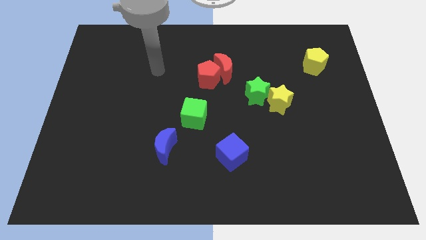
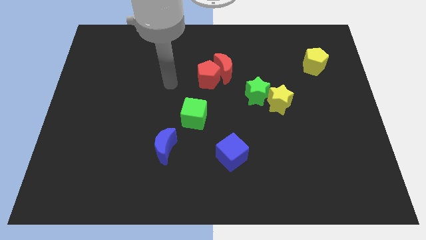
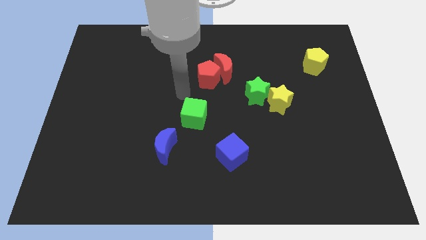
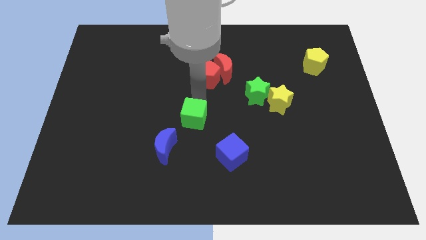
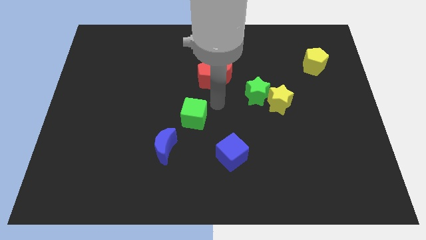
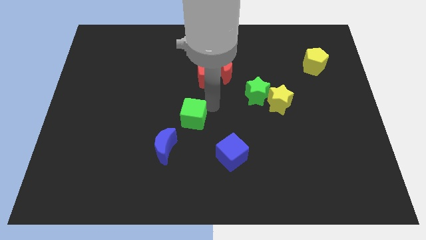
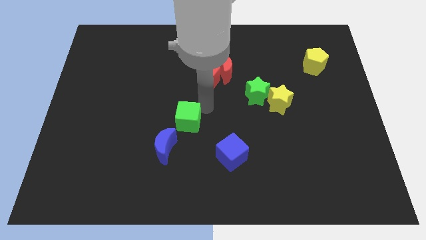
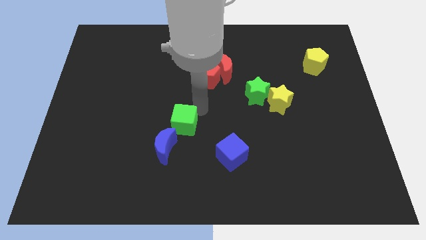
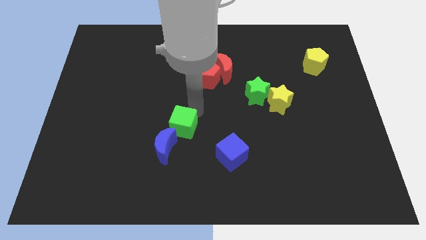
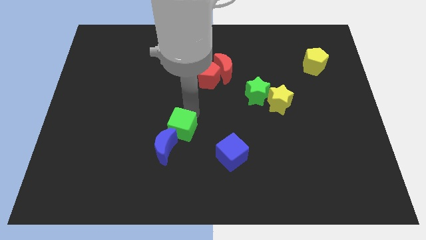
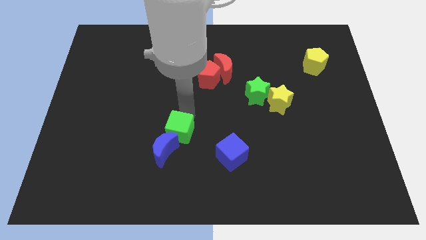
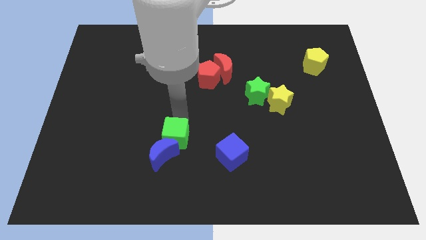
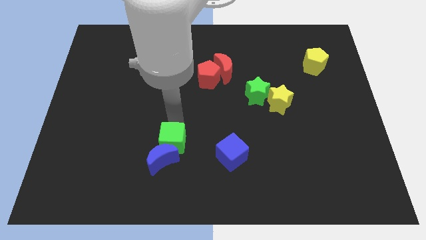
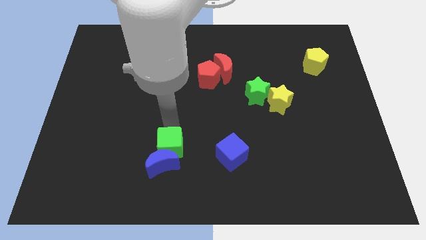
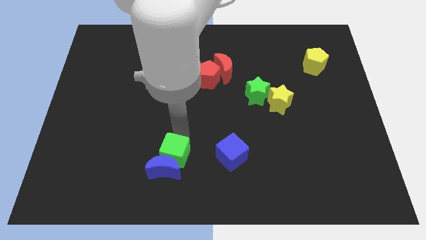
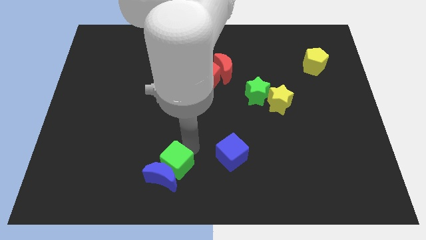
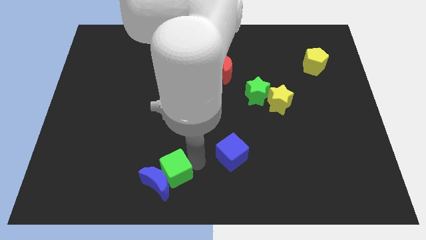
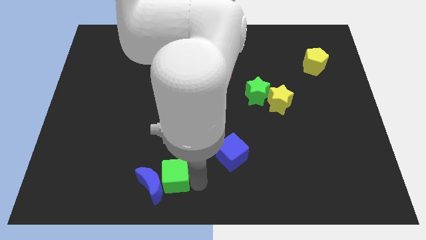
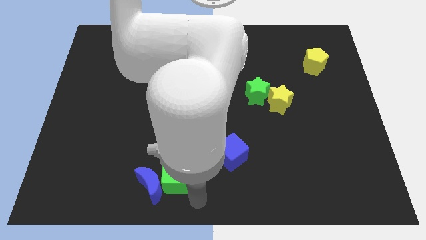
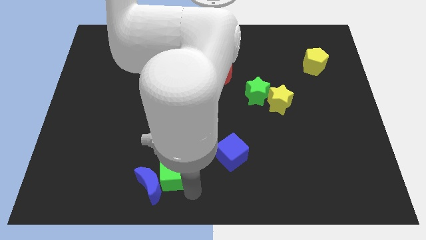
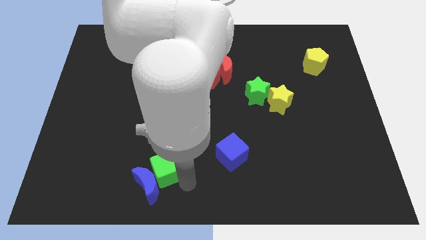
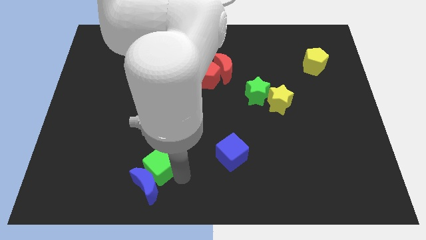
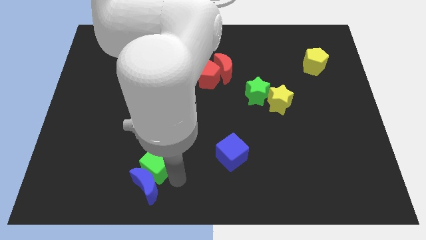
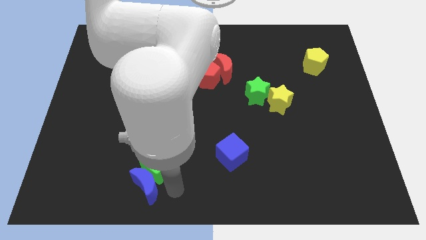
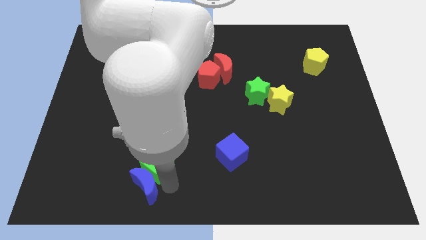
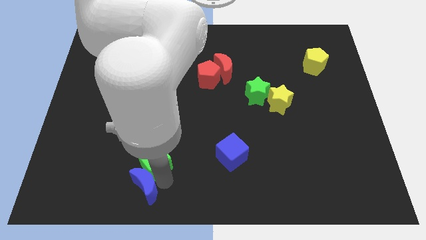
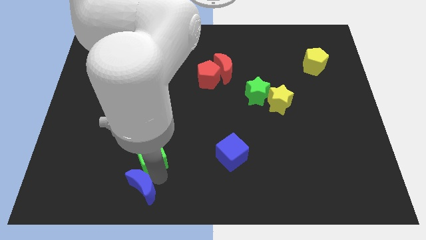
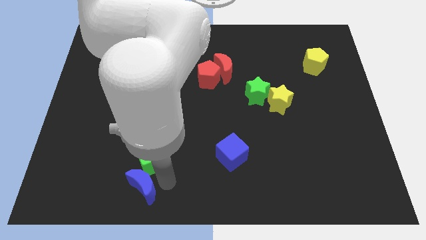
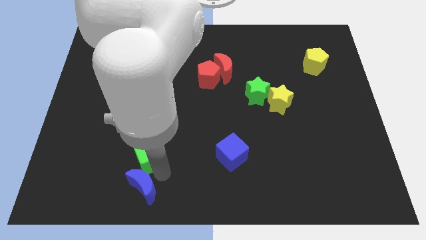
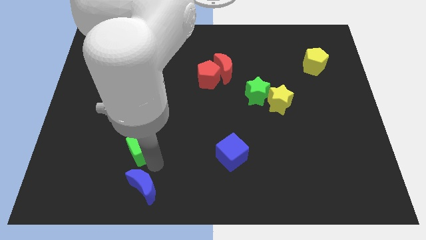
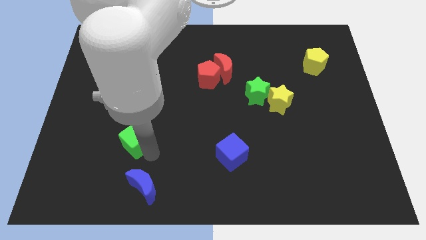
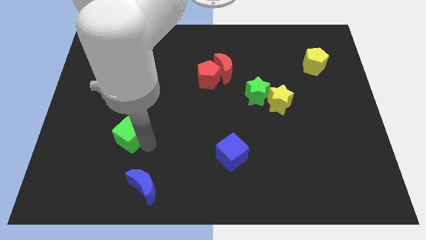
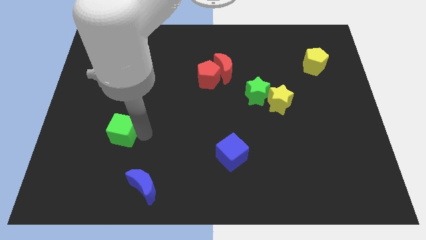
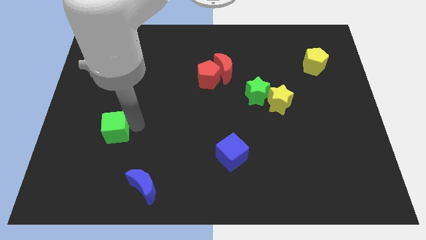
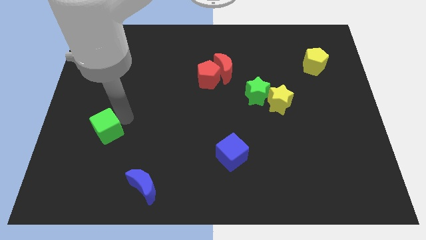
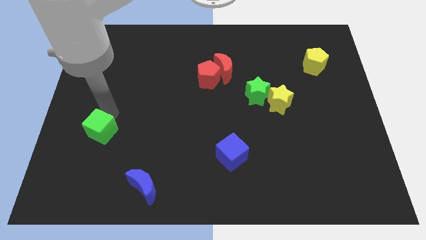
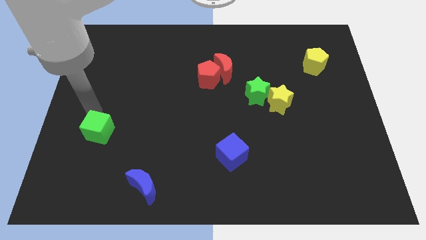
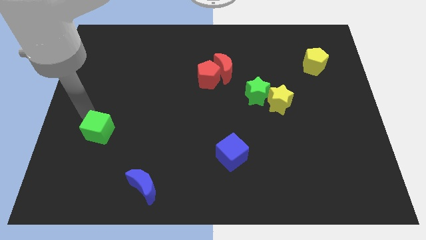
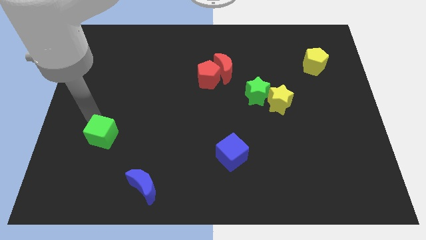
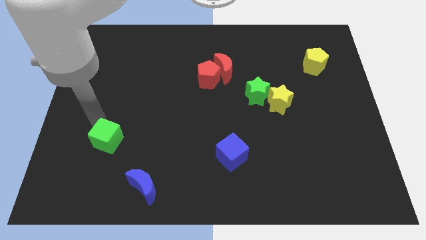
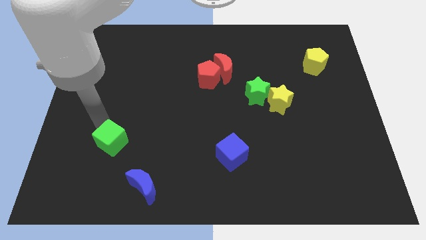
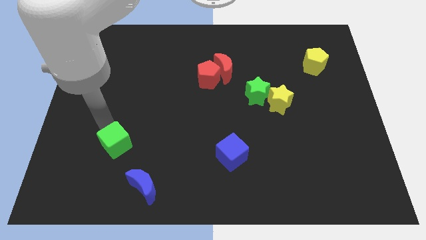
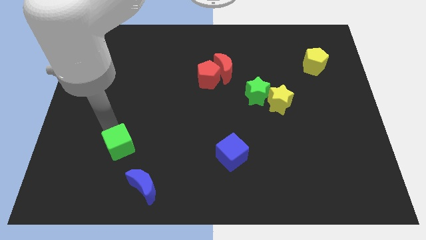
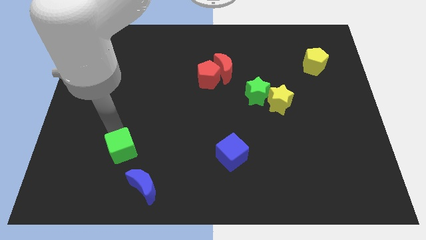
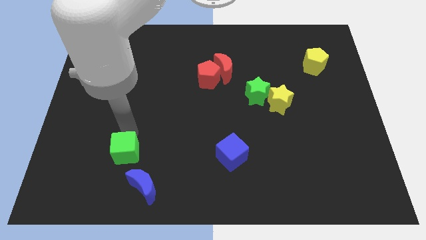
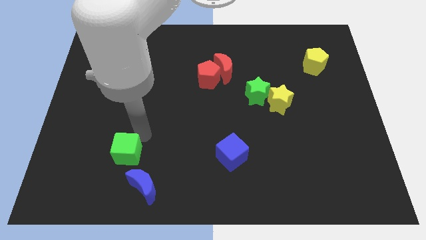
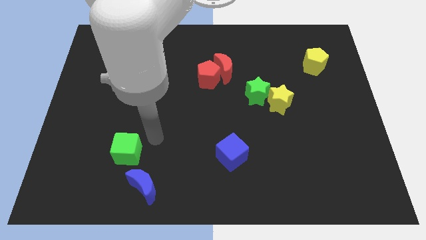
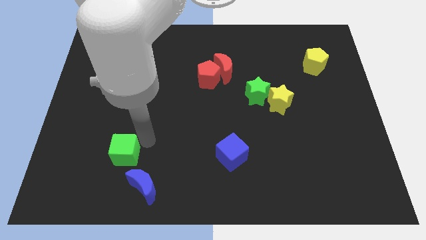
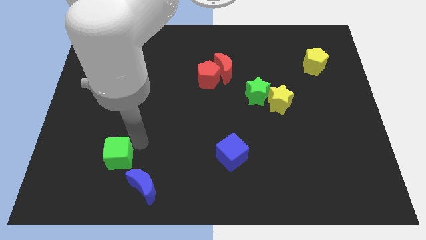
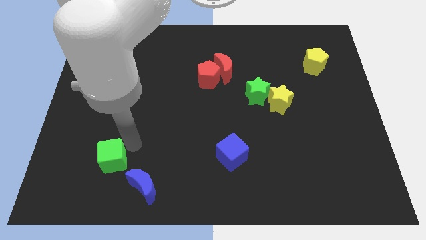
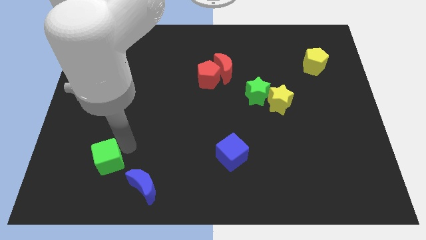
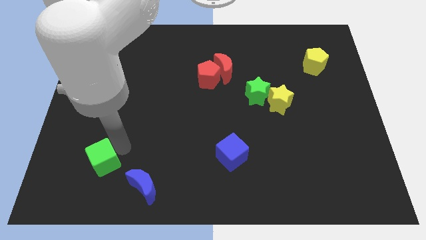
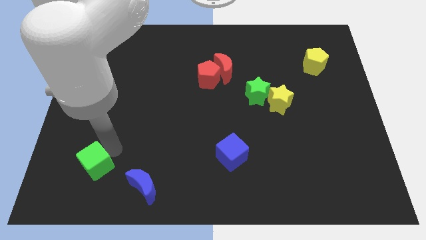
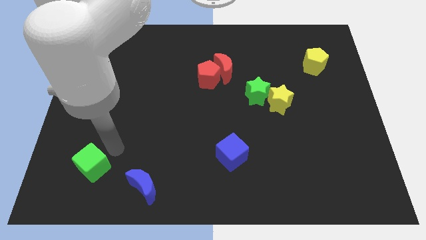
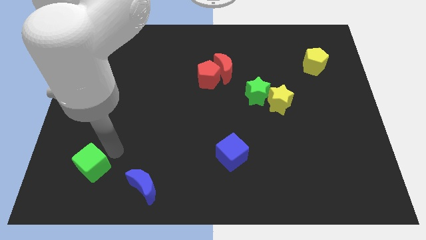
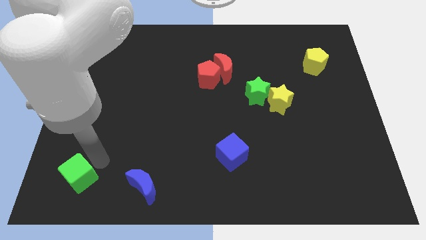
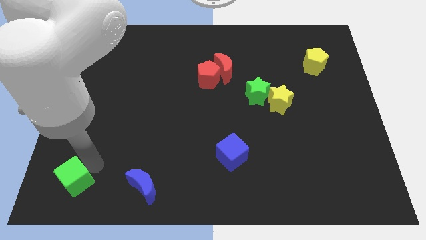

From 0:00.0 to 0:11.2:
put the green cube to the bottom left of the board

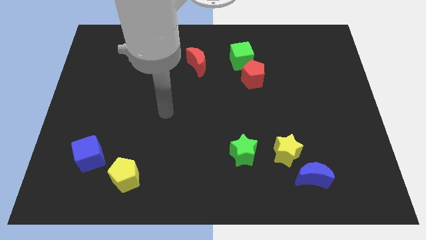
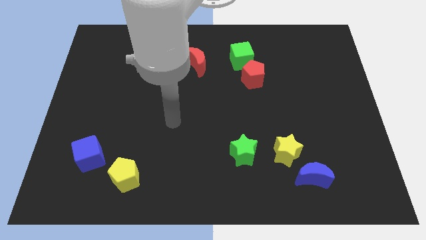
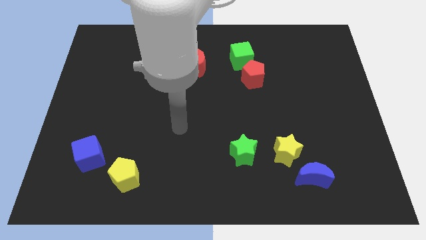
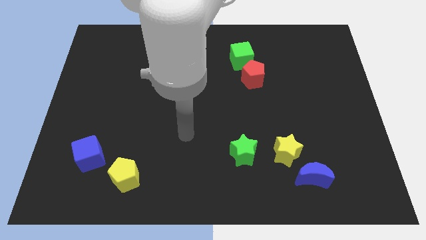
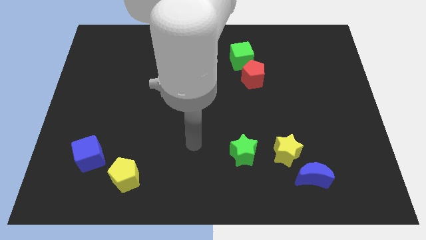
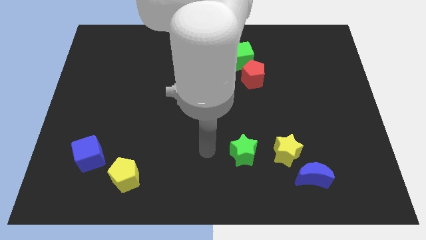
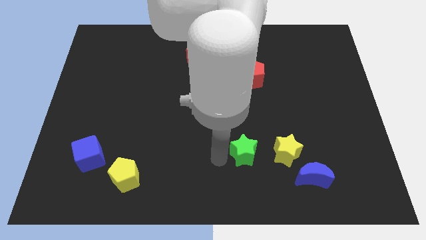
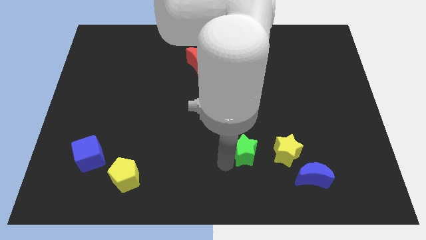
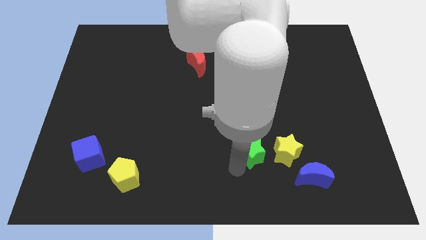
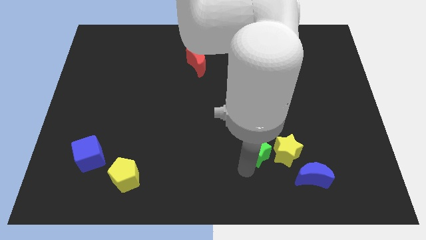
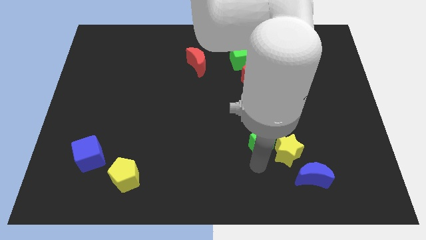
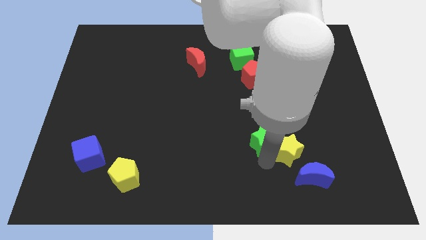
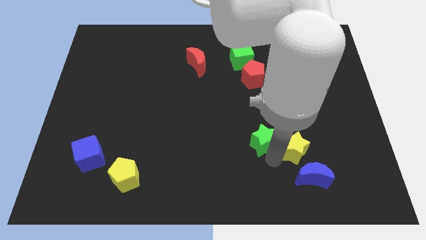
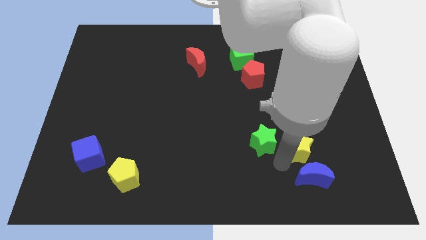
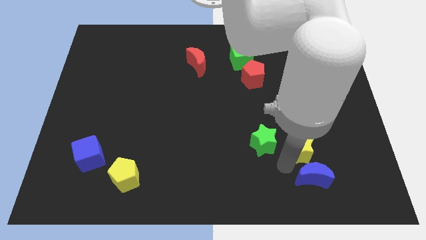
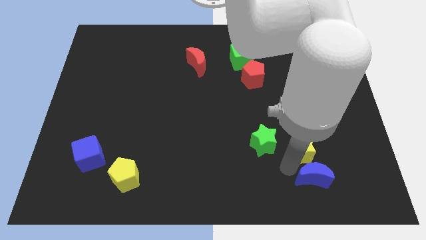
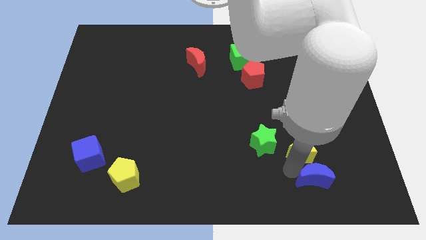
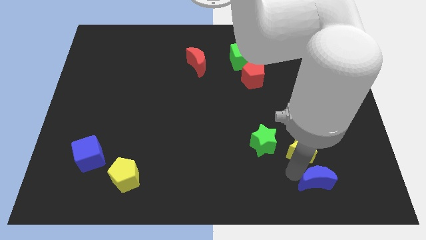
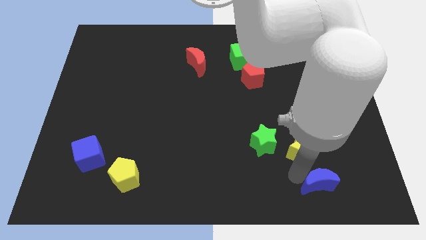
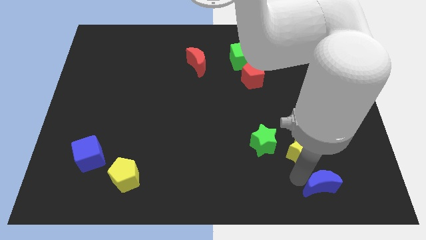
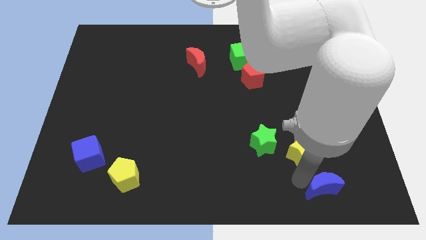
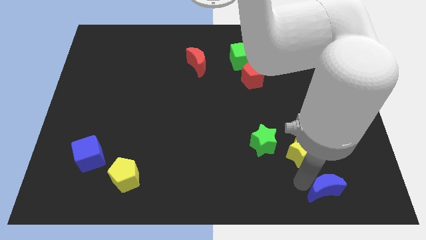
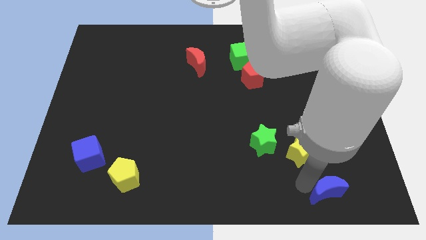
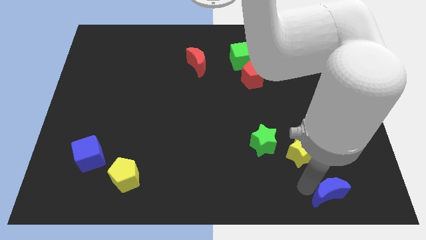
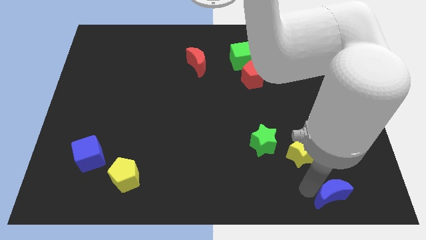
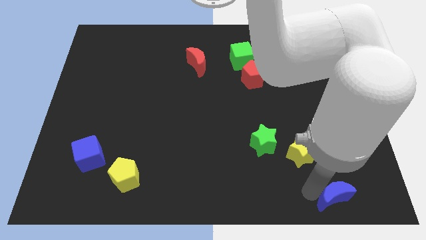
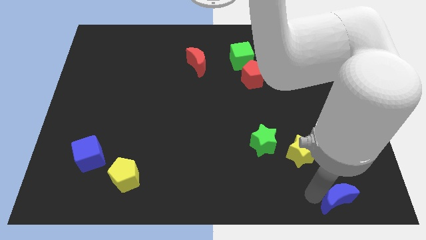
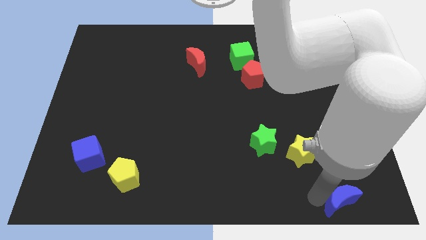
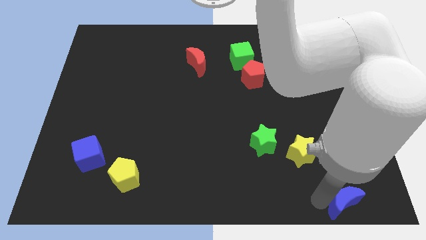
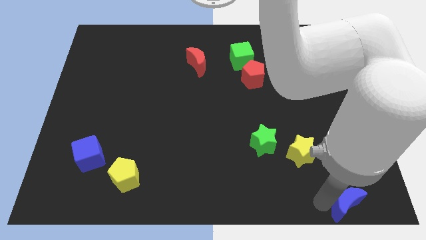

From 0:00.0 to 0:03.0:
slide the blue moon to the bottom right of the board
